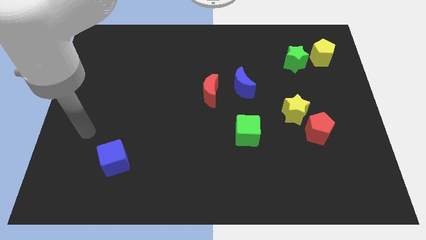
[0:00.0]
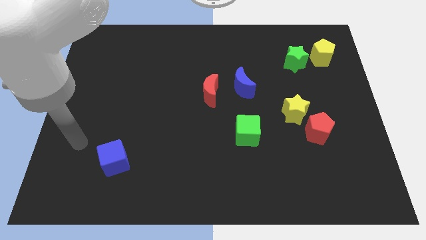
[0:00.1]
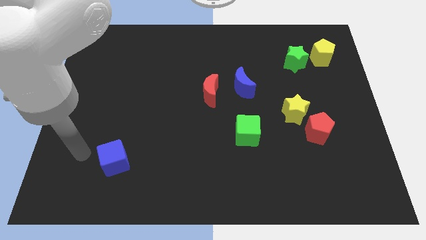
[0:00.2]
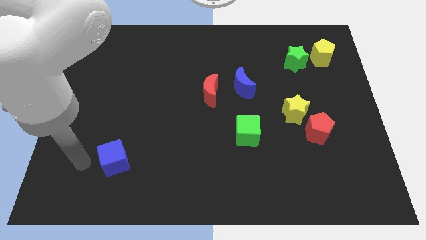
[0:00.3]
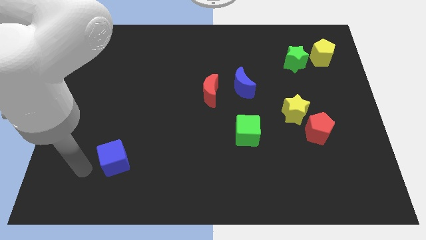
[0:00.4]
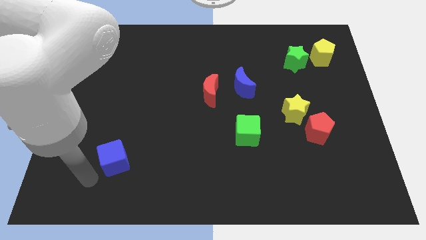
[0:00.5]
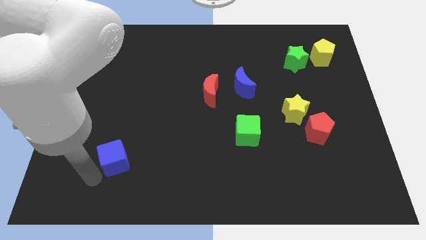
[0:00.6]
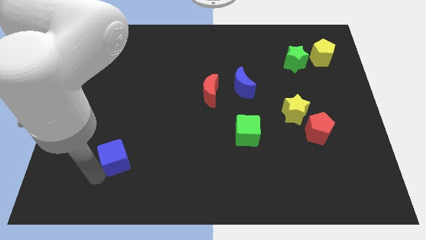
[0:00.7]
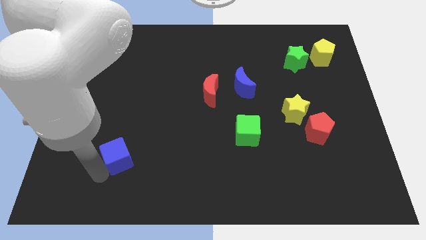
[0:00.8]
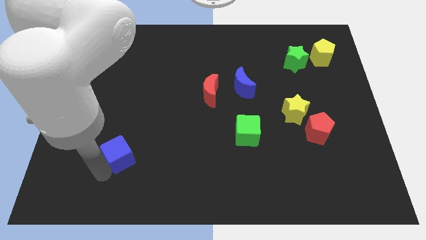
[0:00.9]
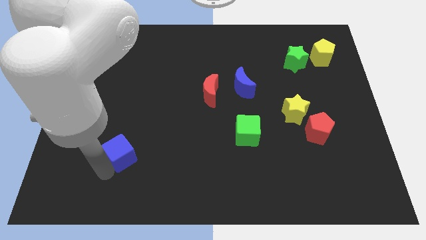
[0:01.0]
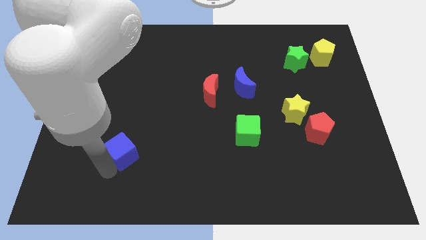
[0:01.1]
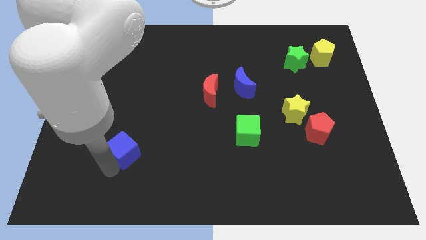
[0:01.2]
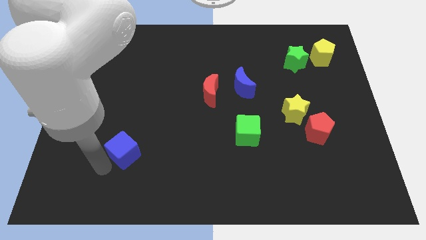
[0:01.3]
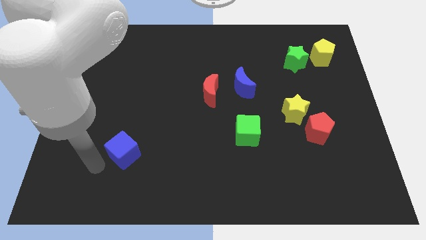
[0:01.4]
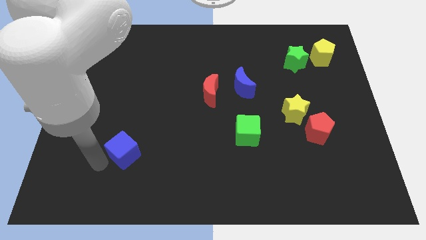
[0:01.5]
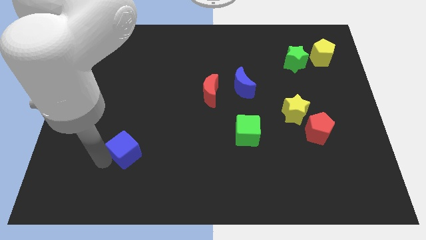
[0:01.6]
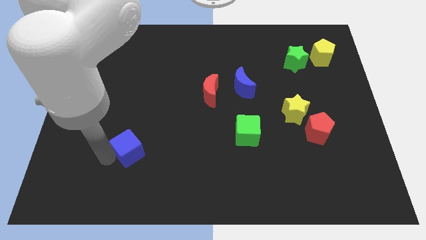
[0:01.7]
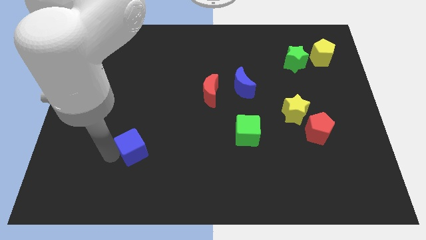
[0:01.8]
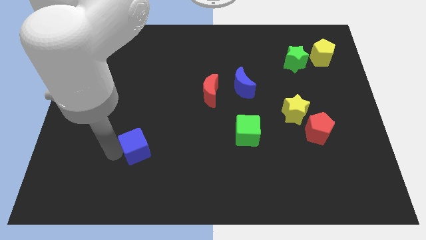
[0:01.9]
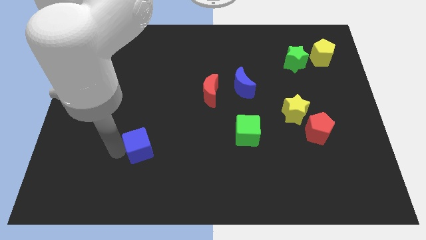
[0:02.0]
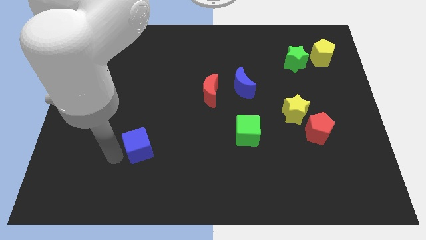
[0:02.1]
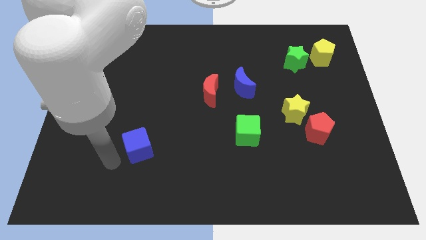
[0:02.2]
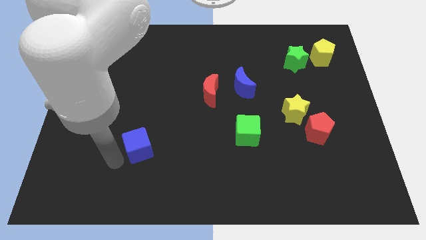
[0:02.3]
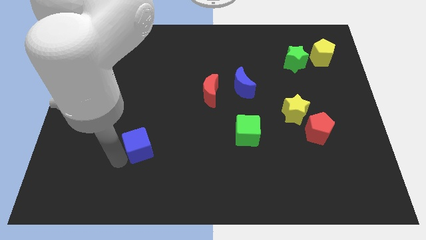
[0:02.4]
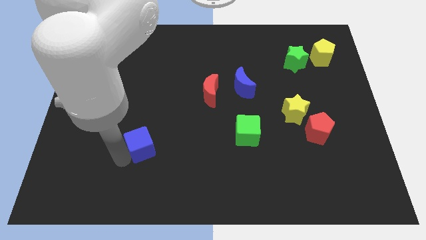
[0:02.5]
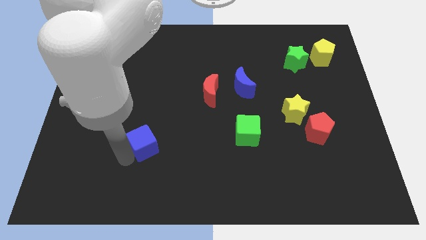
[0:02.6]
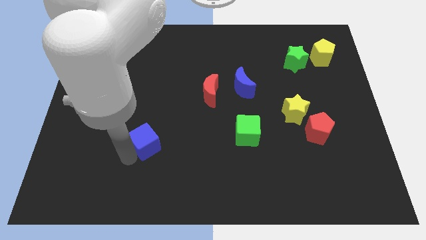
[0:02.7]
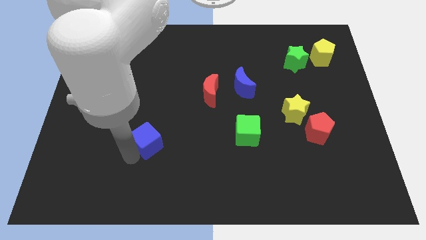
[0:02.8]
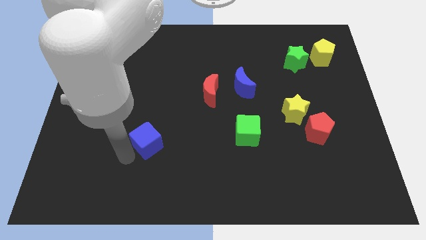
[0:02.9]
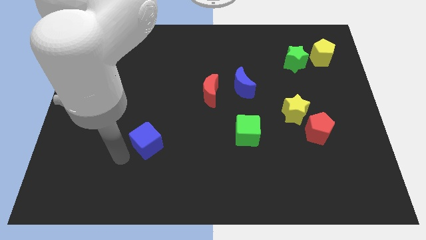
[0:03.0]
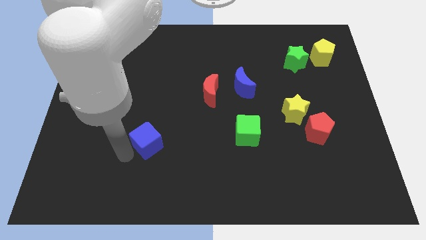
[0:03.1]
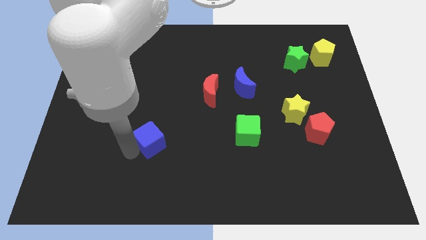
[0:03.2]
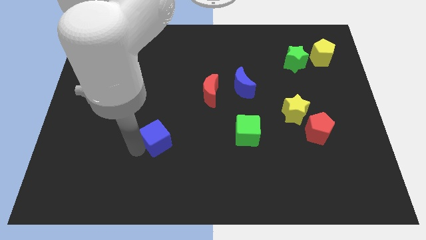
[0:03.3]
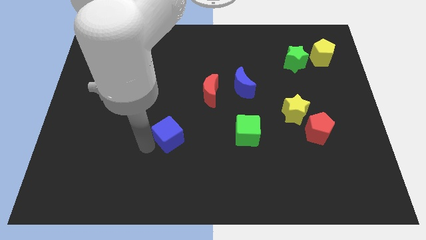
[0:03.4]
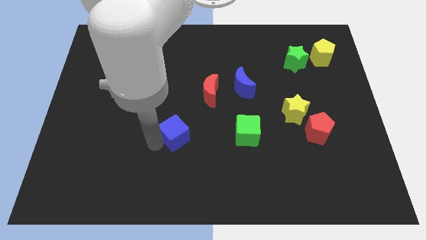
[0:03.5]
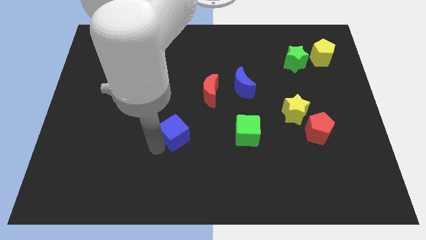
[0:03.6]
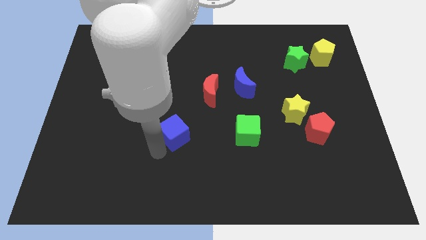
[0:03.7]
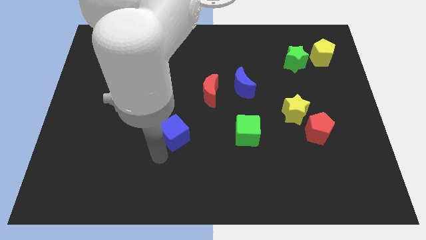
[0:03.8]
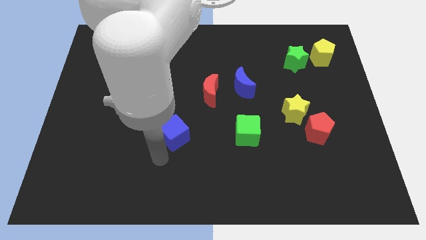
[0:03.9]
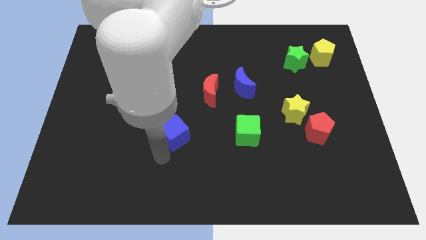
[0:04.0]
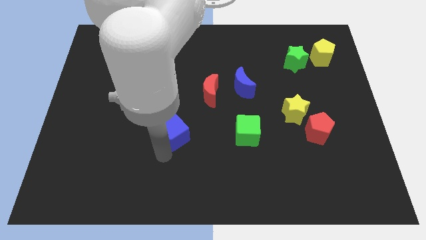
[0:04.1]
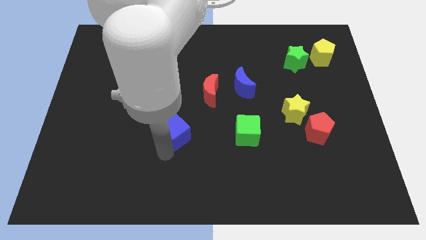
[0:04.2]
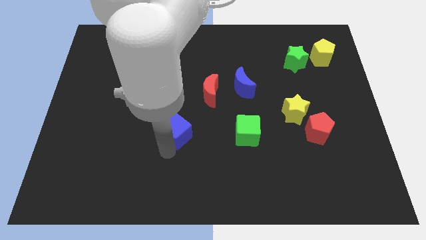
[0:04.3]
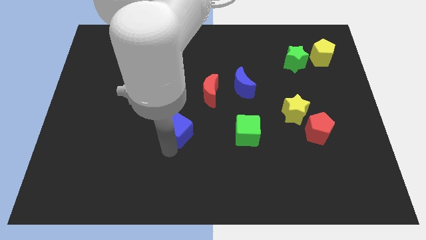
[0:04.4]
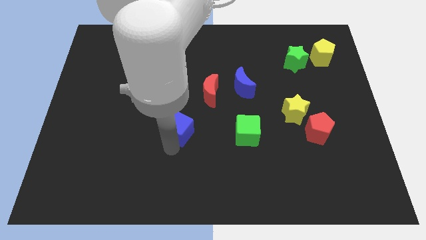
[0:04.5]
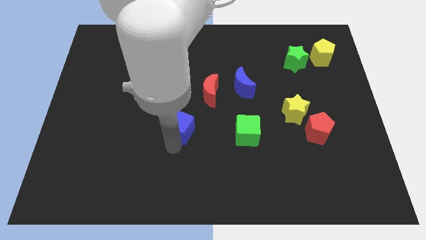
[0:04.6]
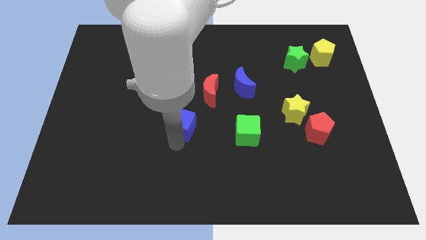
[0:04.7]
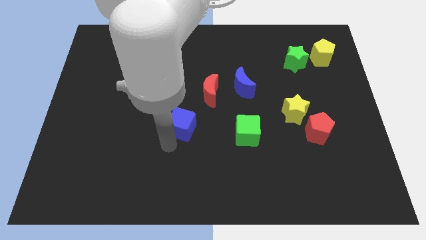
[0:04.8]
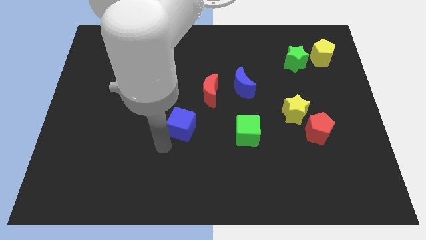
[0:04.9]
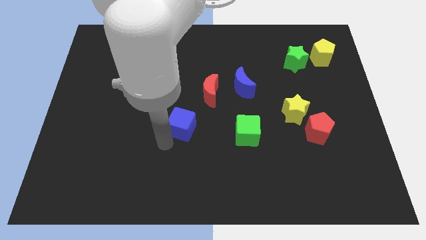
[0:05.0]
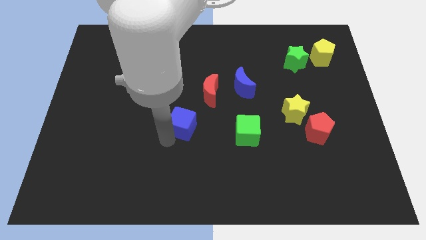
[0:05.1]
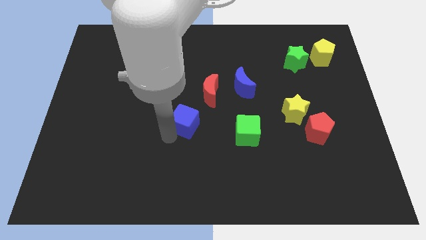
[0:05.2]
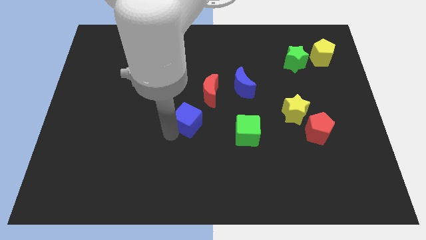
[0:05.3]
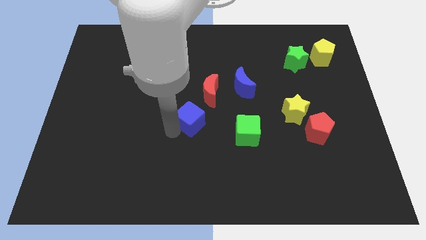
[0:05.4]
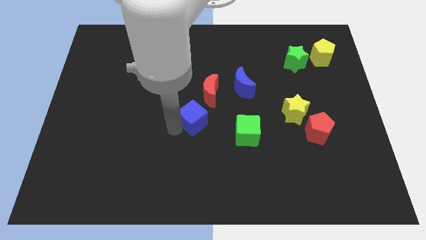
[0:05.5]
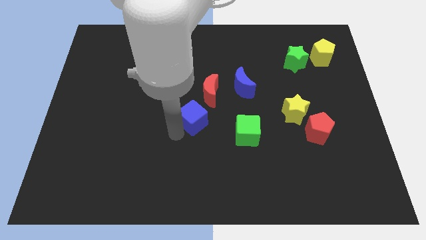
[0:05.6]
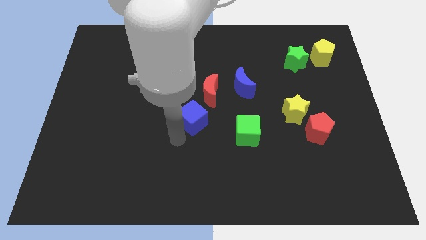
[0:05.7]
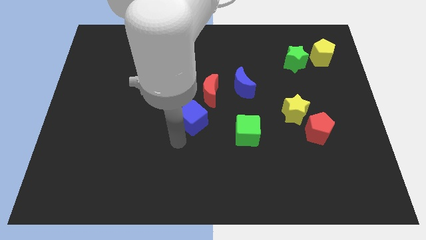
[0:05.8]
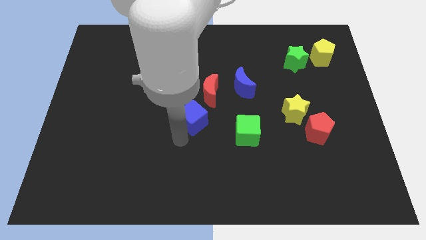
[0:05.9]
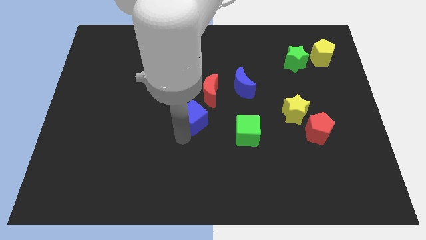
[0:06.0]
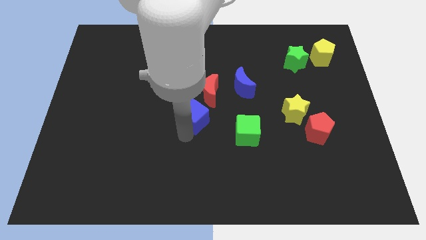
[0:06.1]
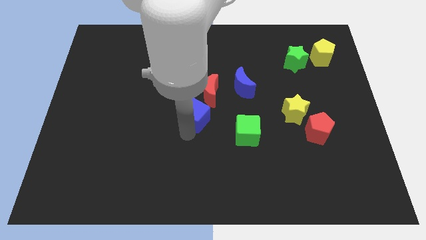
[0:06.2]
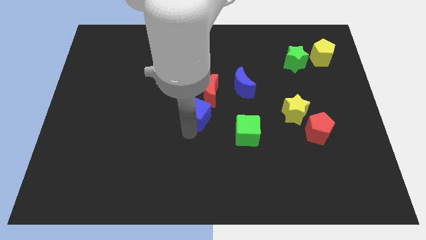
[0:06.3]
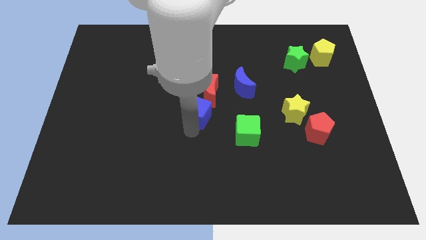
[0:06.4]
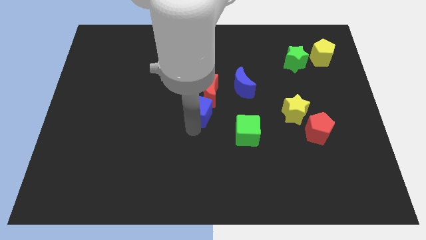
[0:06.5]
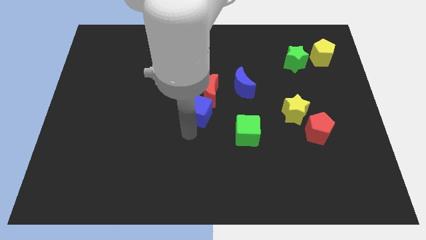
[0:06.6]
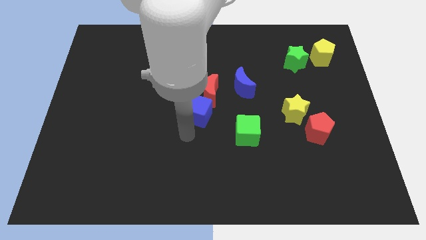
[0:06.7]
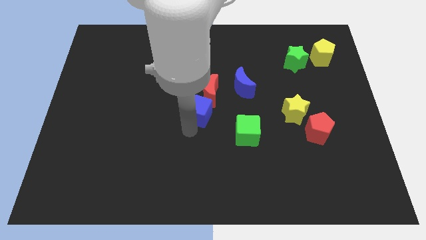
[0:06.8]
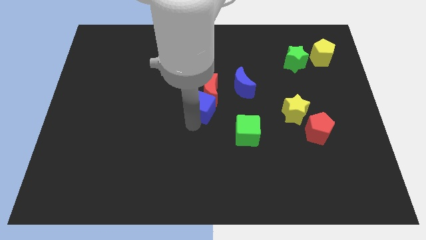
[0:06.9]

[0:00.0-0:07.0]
move the blue cube to the red moon

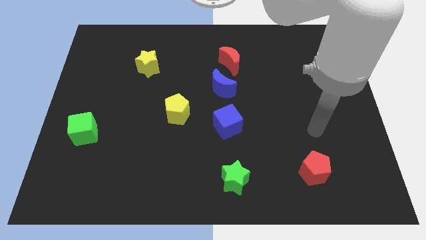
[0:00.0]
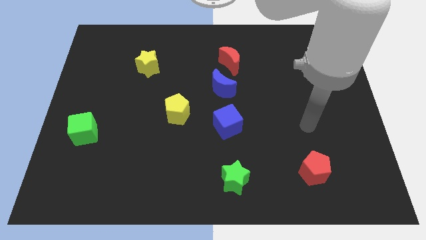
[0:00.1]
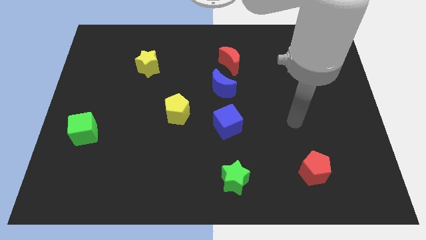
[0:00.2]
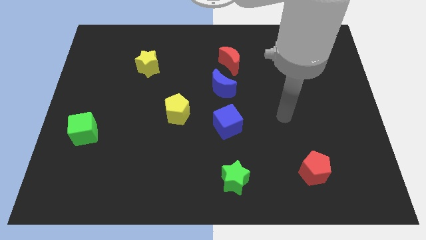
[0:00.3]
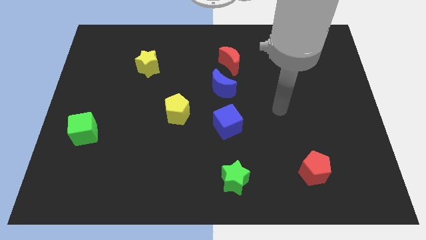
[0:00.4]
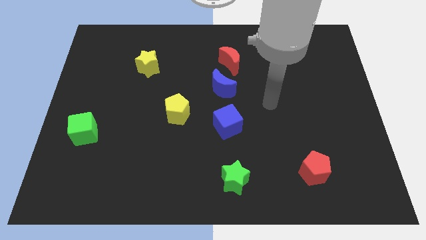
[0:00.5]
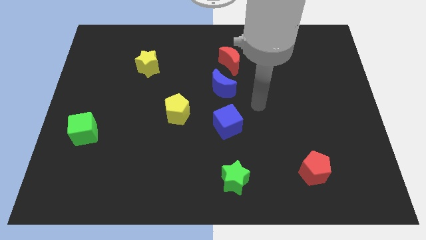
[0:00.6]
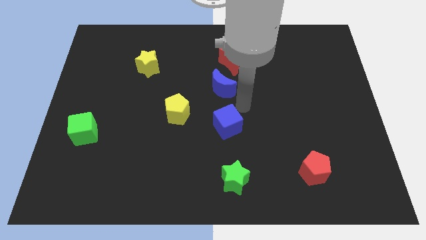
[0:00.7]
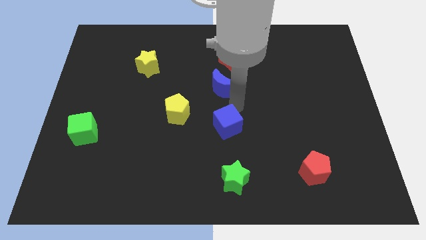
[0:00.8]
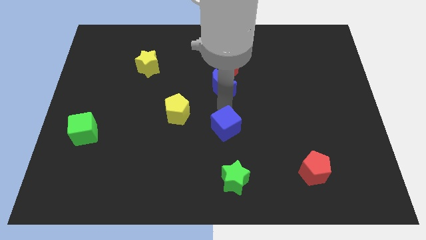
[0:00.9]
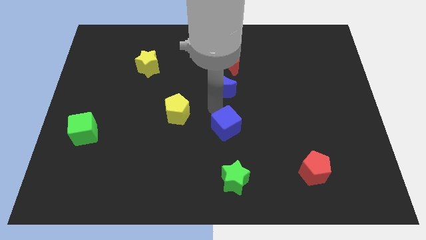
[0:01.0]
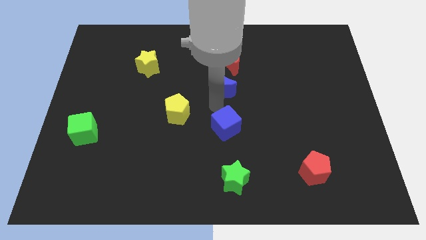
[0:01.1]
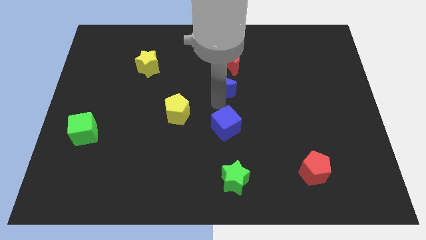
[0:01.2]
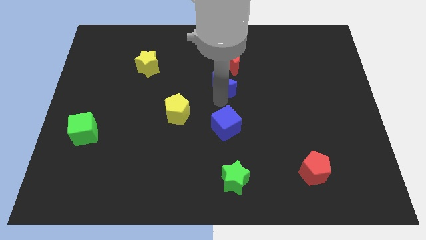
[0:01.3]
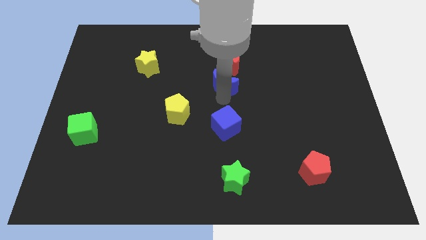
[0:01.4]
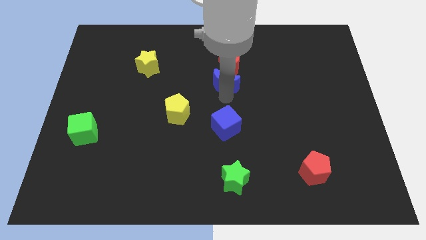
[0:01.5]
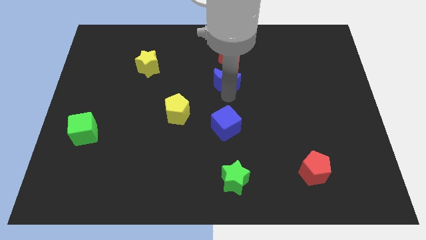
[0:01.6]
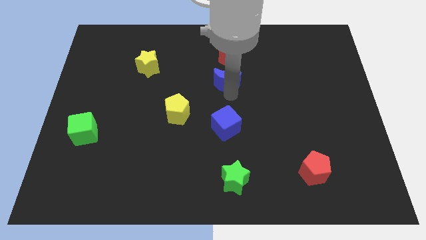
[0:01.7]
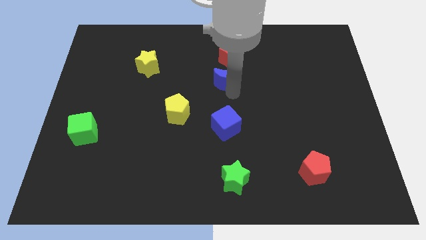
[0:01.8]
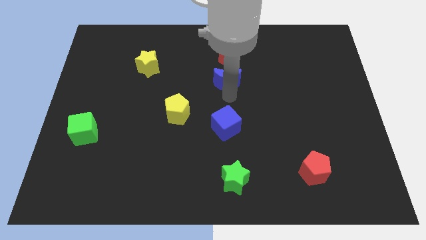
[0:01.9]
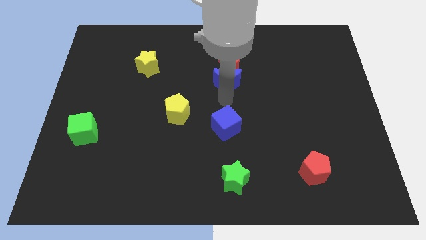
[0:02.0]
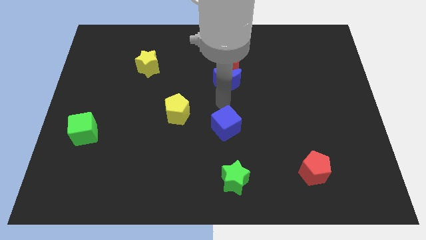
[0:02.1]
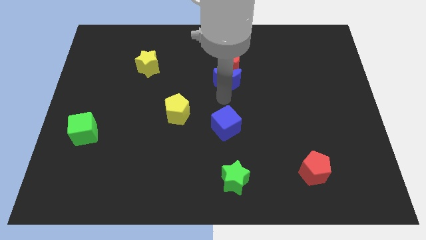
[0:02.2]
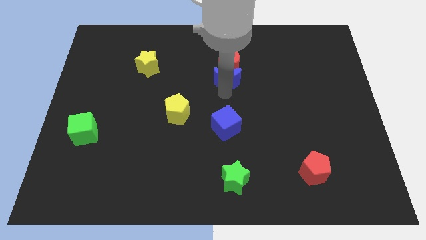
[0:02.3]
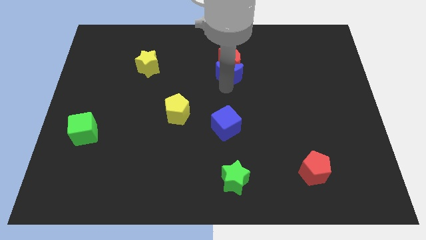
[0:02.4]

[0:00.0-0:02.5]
push the blue moon next to the red moon
